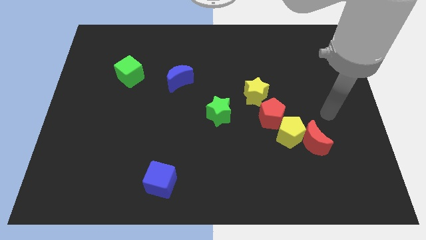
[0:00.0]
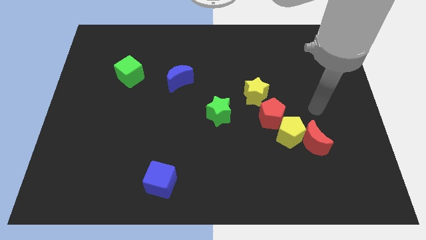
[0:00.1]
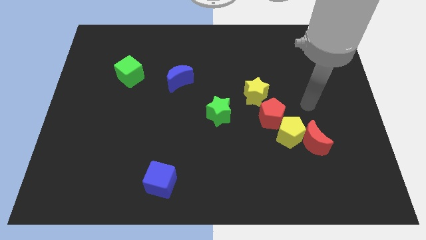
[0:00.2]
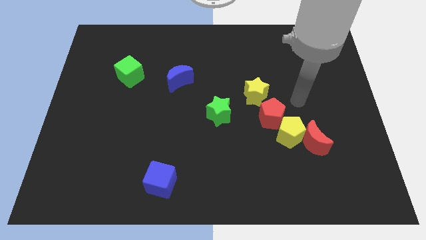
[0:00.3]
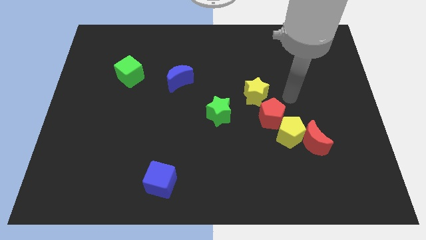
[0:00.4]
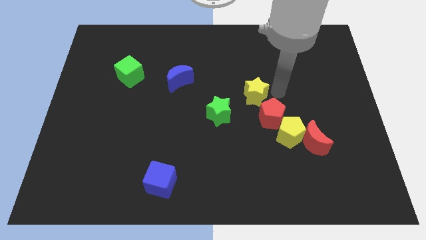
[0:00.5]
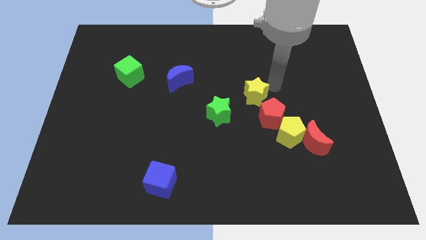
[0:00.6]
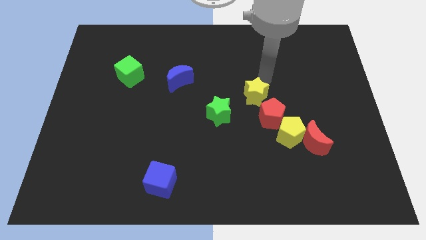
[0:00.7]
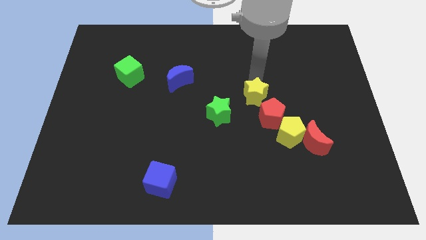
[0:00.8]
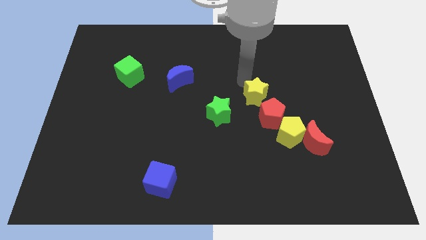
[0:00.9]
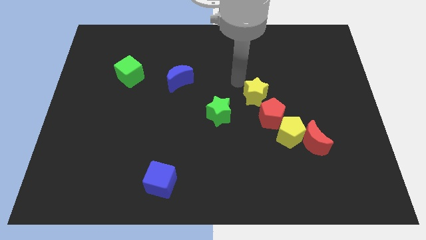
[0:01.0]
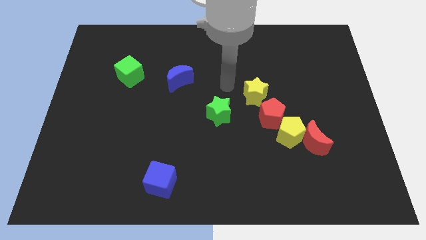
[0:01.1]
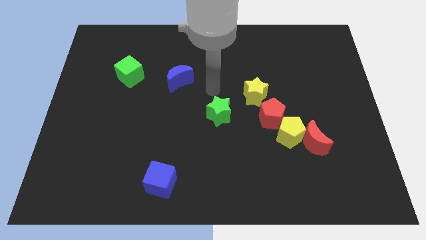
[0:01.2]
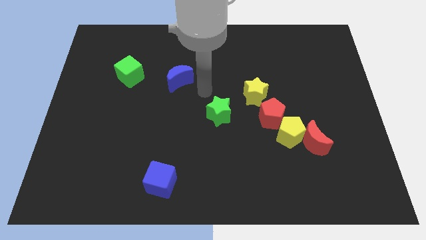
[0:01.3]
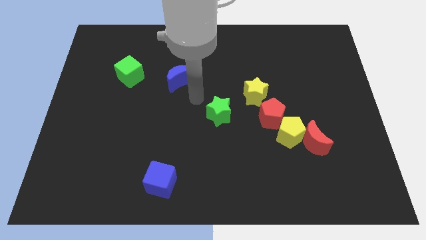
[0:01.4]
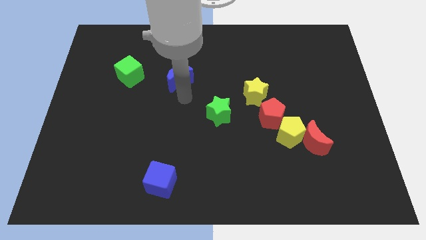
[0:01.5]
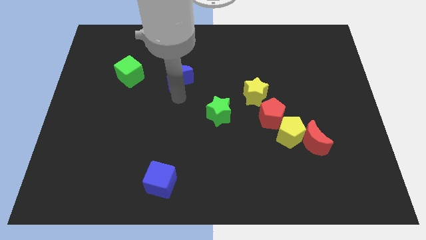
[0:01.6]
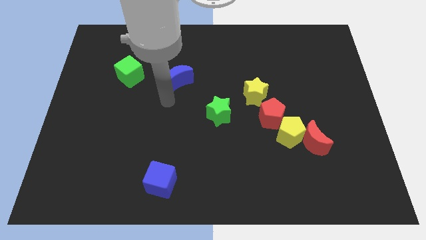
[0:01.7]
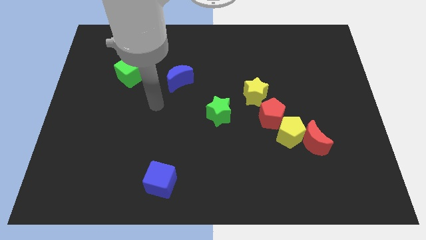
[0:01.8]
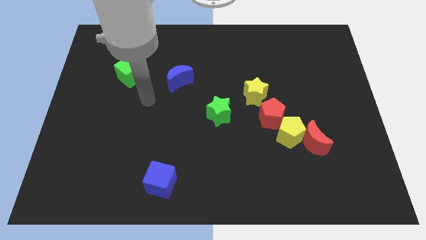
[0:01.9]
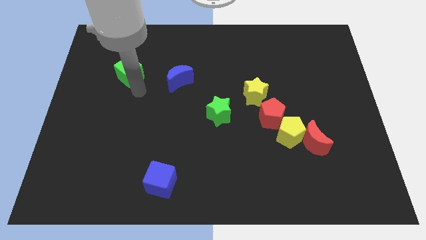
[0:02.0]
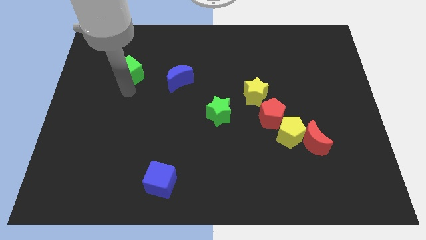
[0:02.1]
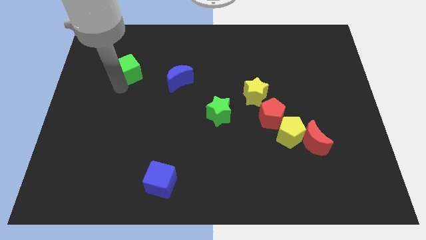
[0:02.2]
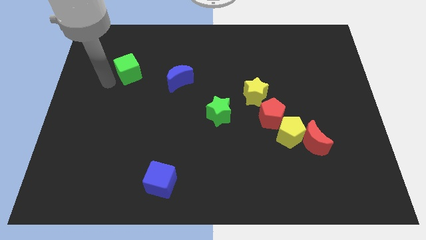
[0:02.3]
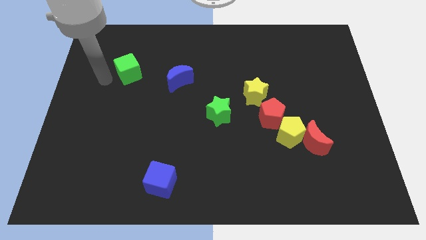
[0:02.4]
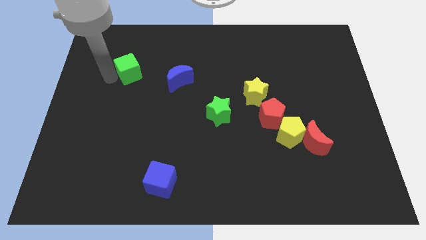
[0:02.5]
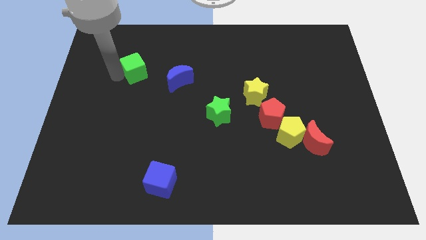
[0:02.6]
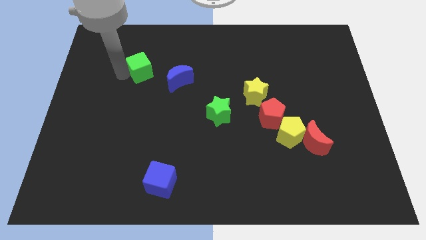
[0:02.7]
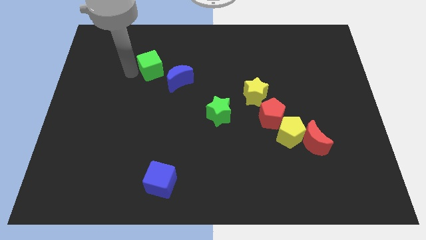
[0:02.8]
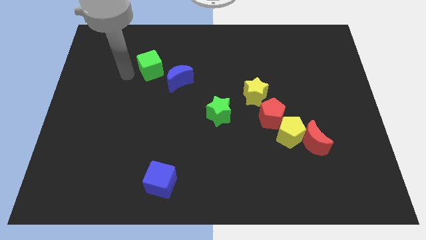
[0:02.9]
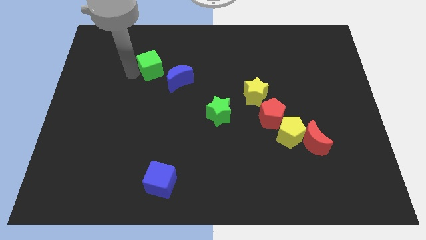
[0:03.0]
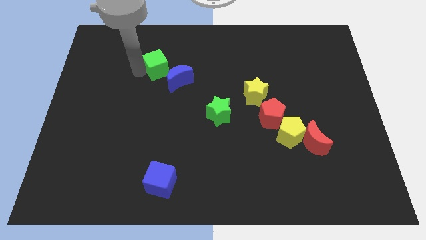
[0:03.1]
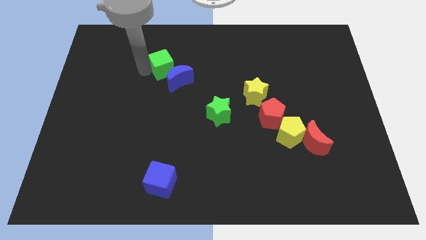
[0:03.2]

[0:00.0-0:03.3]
slightly move the green cube to the right

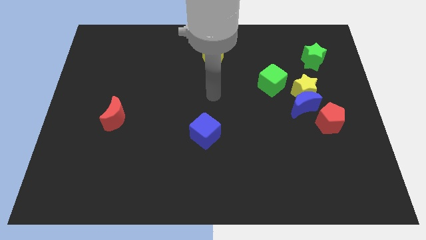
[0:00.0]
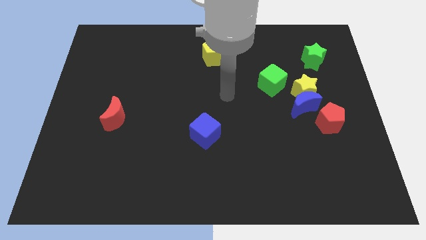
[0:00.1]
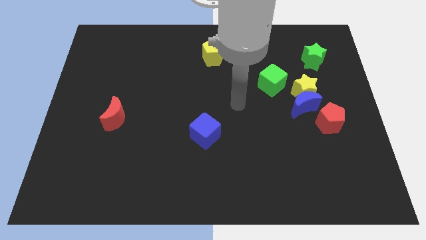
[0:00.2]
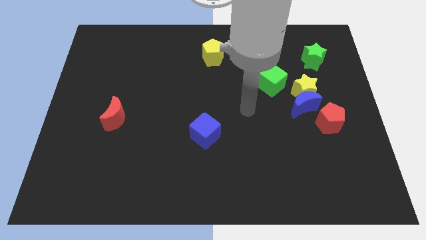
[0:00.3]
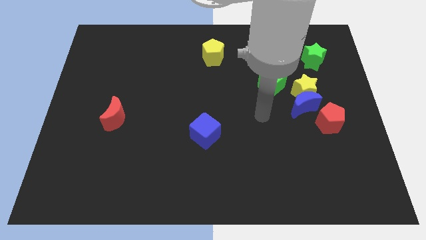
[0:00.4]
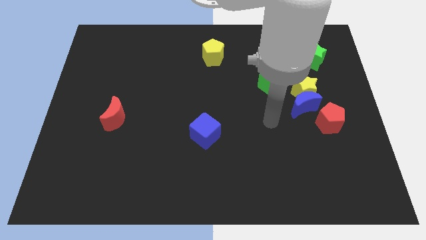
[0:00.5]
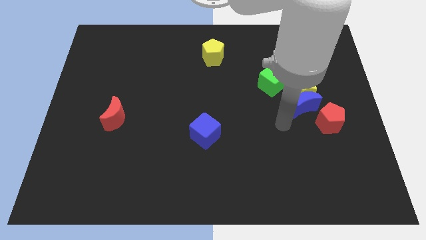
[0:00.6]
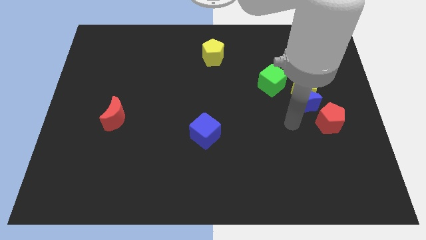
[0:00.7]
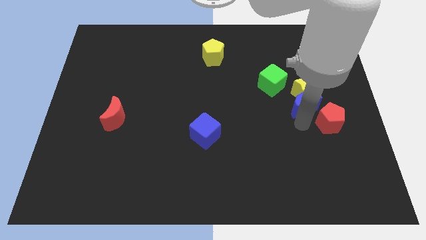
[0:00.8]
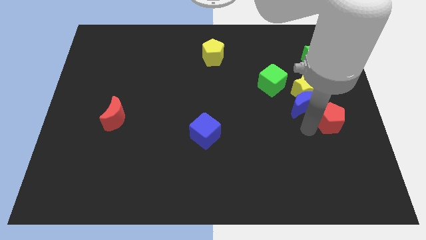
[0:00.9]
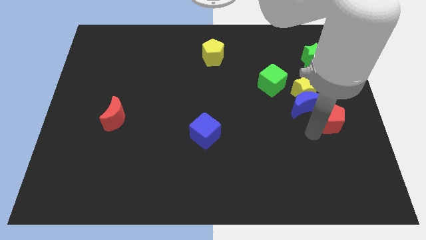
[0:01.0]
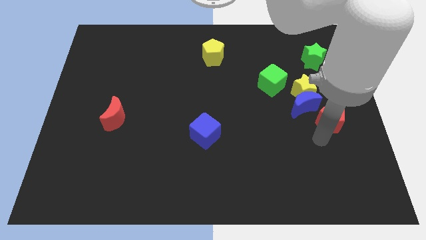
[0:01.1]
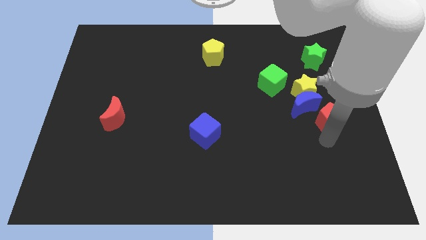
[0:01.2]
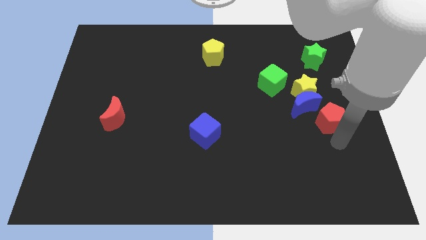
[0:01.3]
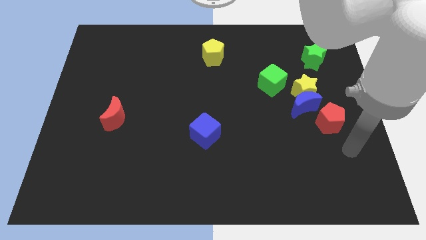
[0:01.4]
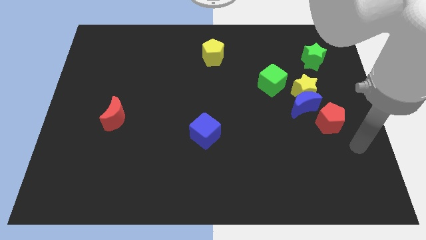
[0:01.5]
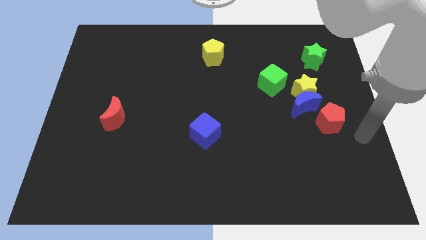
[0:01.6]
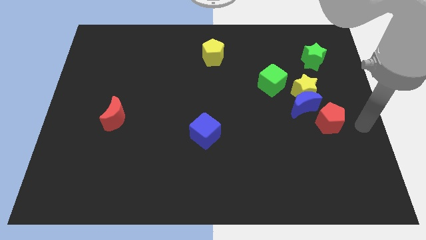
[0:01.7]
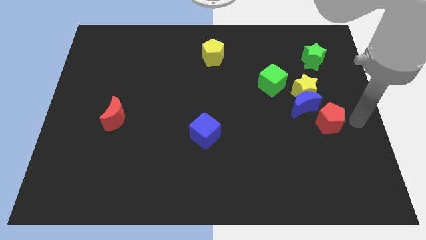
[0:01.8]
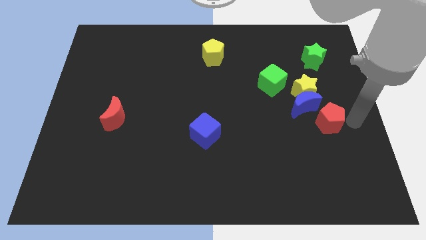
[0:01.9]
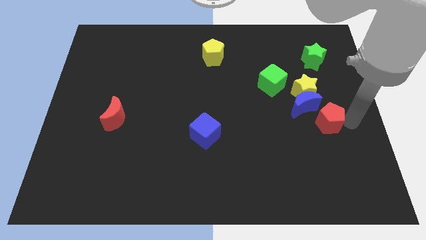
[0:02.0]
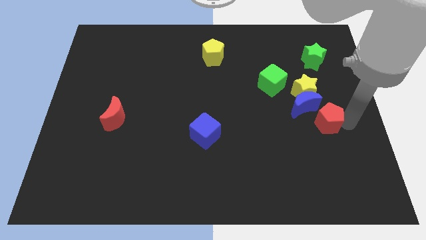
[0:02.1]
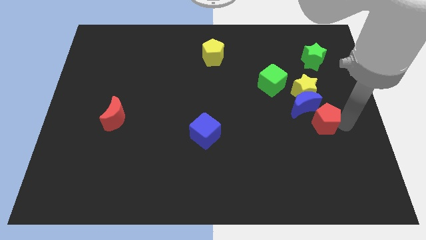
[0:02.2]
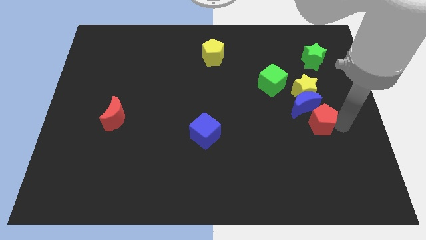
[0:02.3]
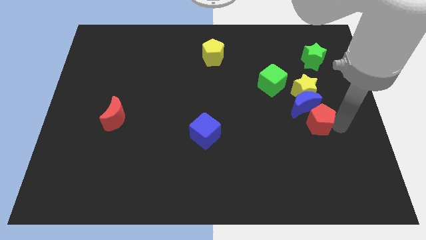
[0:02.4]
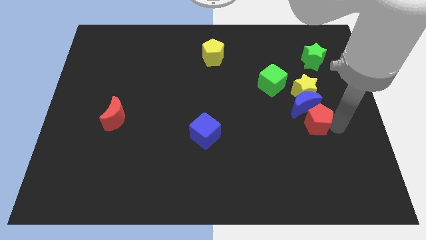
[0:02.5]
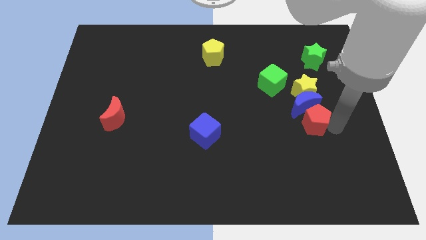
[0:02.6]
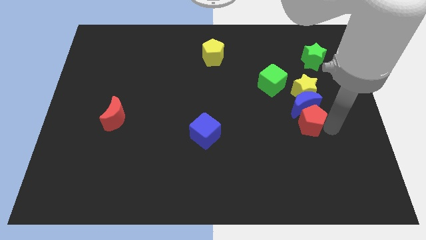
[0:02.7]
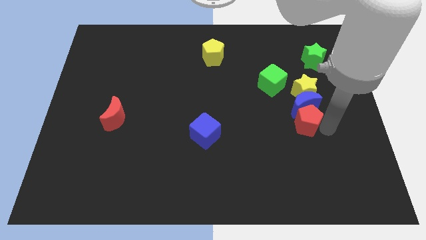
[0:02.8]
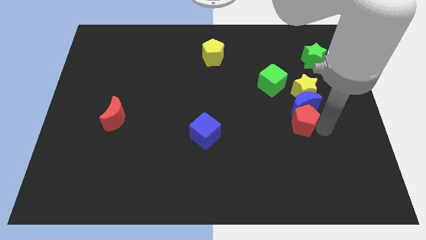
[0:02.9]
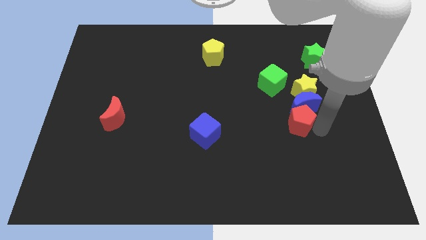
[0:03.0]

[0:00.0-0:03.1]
slightly push the red pentagon to the left

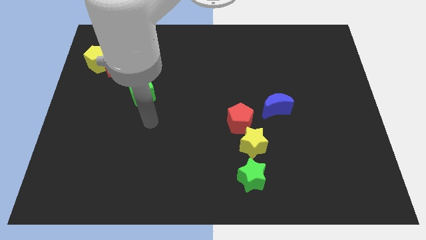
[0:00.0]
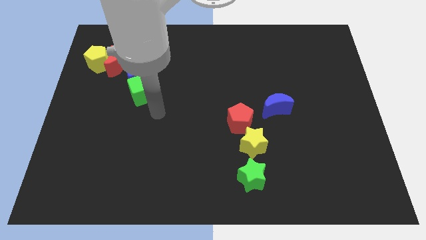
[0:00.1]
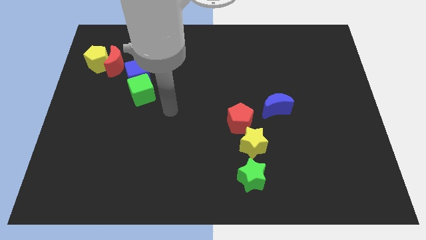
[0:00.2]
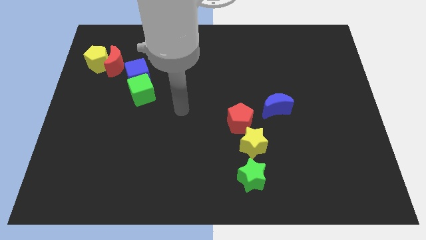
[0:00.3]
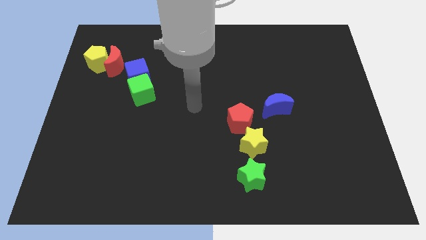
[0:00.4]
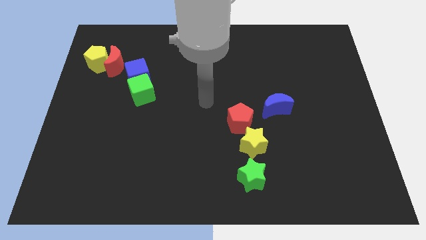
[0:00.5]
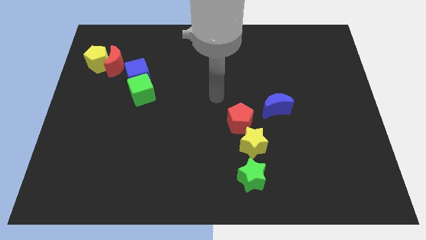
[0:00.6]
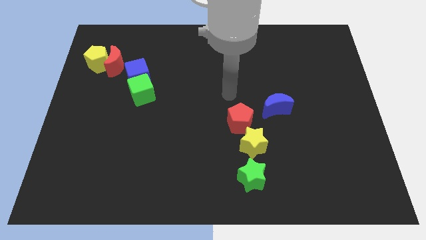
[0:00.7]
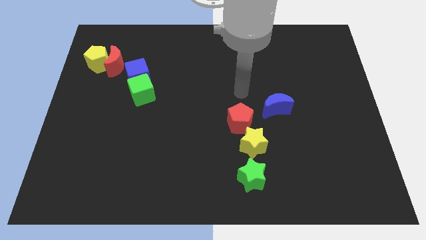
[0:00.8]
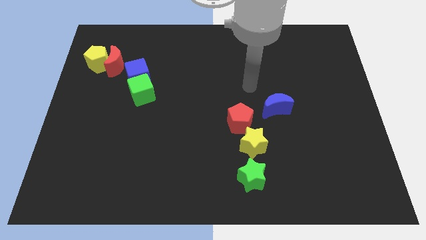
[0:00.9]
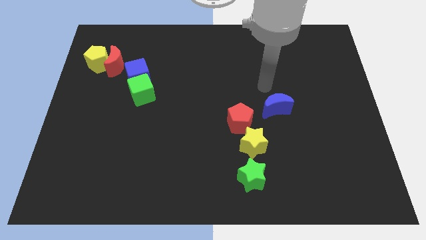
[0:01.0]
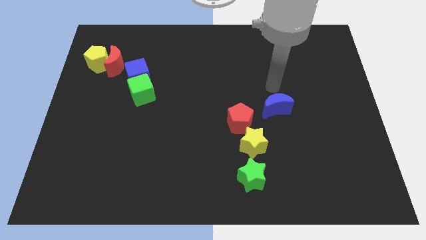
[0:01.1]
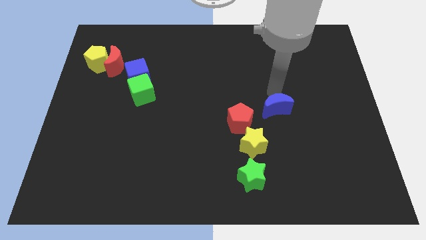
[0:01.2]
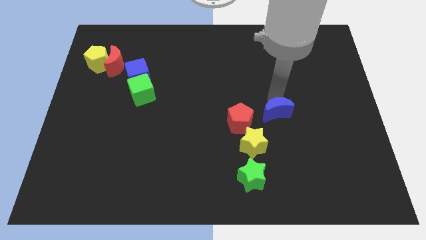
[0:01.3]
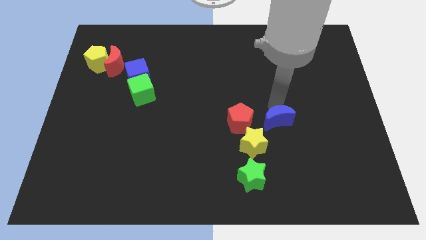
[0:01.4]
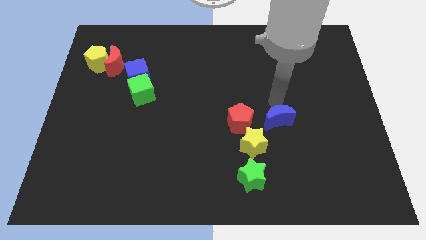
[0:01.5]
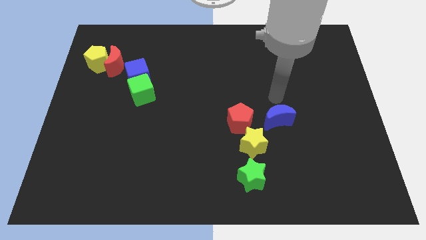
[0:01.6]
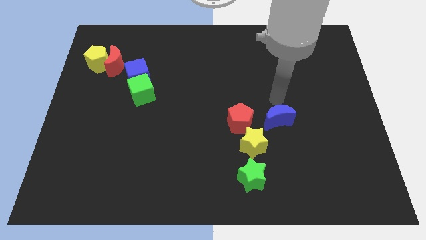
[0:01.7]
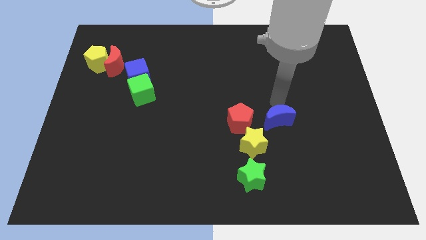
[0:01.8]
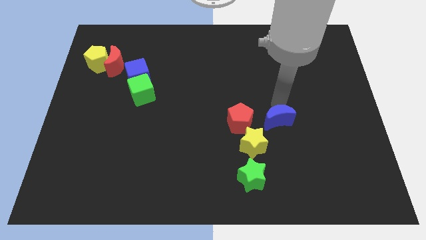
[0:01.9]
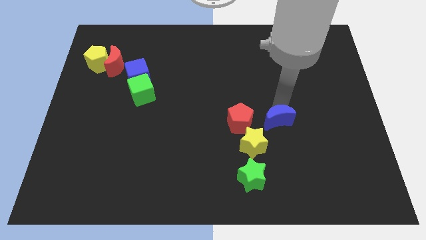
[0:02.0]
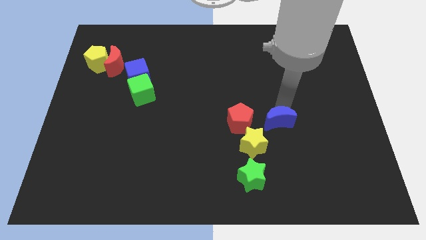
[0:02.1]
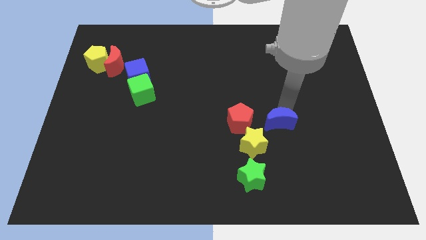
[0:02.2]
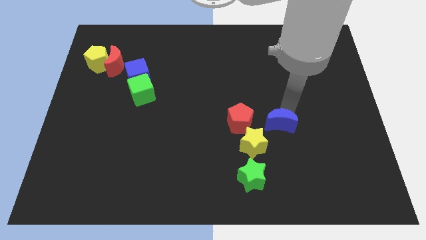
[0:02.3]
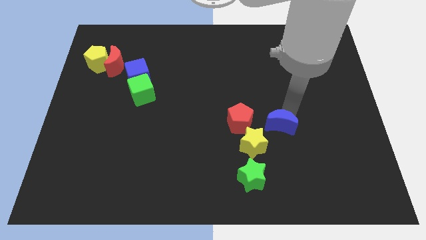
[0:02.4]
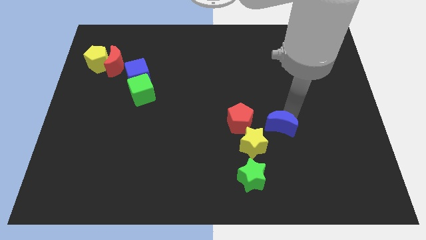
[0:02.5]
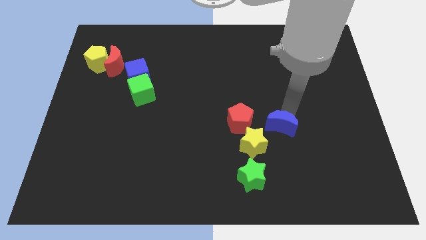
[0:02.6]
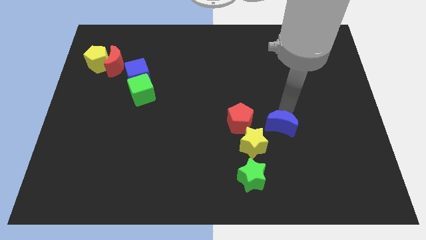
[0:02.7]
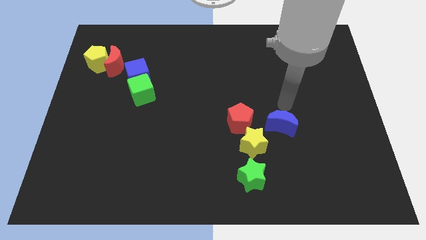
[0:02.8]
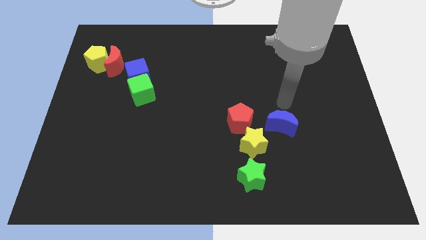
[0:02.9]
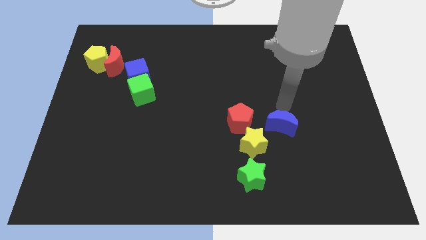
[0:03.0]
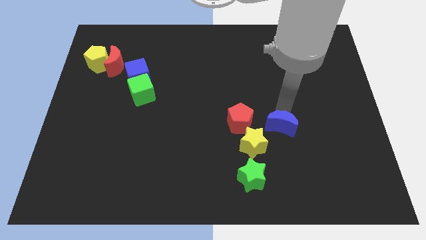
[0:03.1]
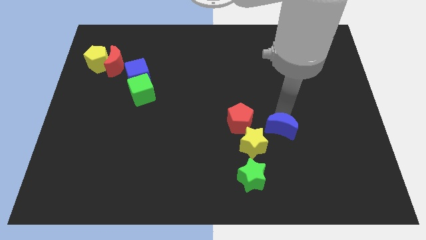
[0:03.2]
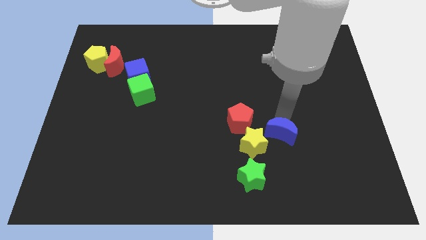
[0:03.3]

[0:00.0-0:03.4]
slide the blue moon down somewhat
